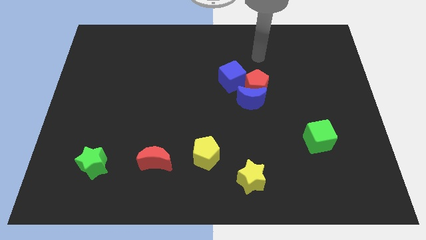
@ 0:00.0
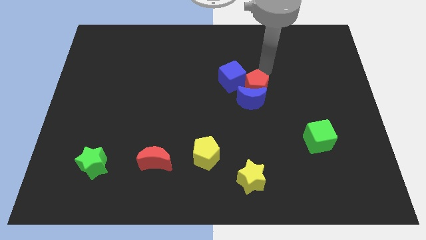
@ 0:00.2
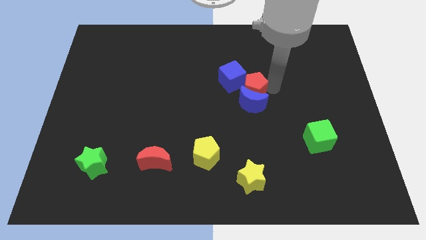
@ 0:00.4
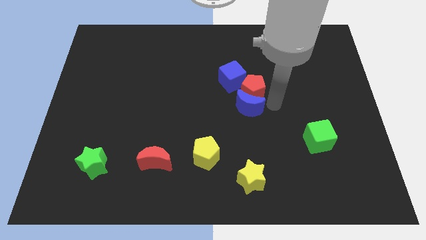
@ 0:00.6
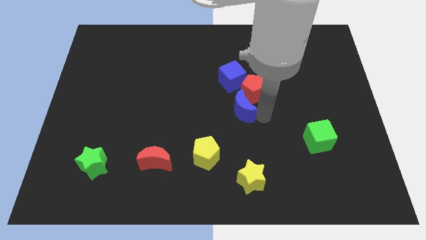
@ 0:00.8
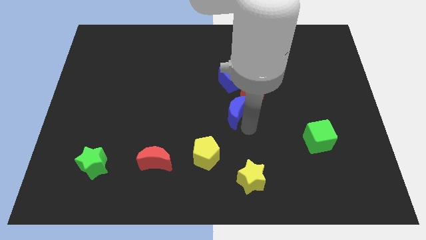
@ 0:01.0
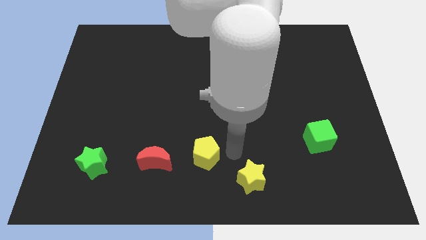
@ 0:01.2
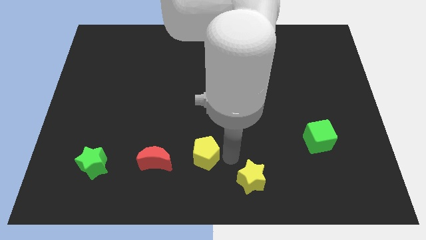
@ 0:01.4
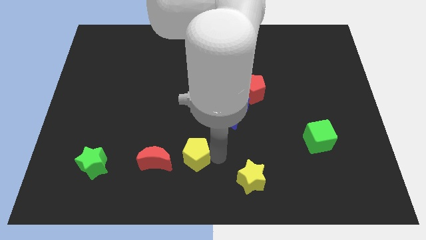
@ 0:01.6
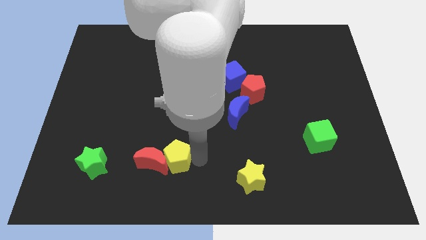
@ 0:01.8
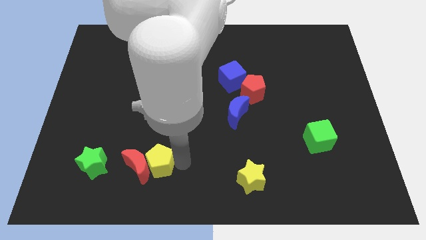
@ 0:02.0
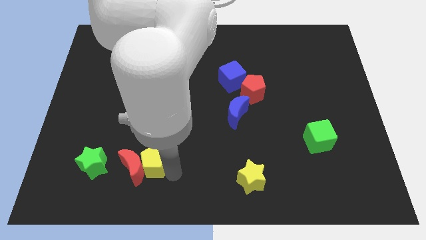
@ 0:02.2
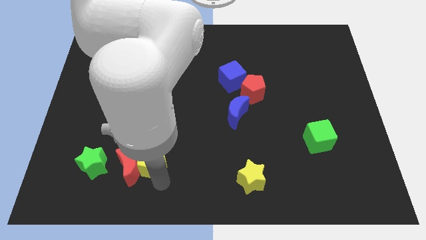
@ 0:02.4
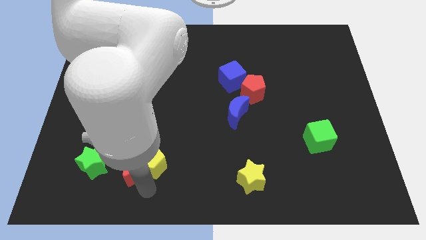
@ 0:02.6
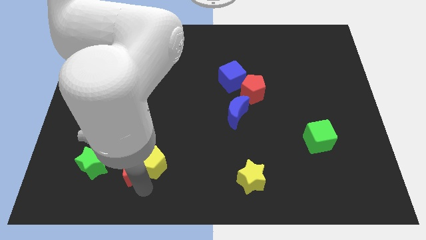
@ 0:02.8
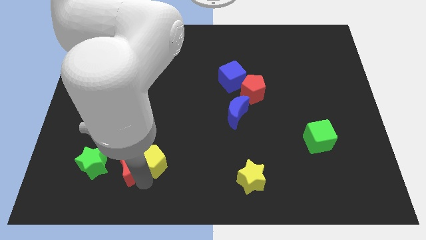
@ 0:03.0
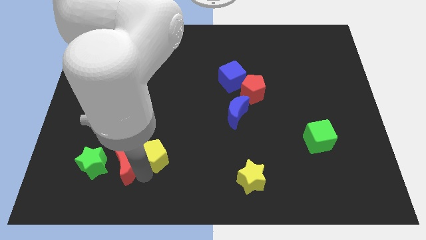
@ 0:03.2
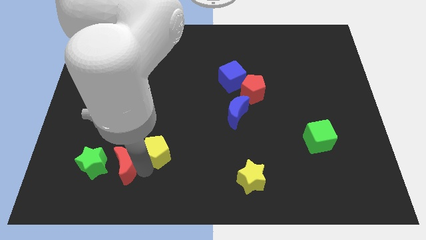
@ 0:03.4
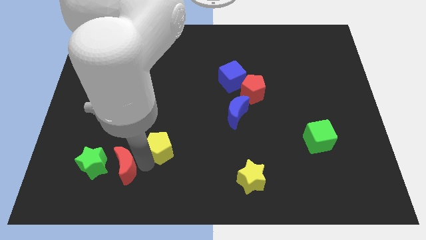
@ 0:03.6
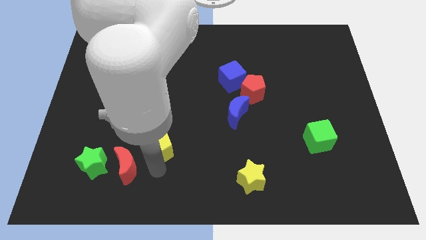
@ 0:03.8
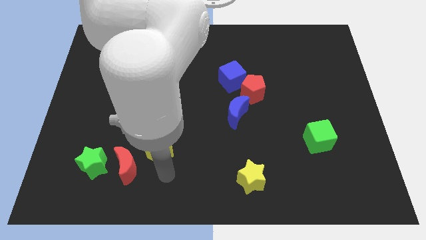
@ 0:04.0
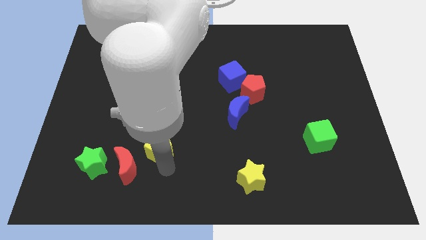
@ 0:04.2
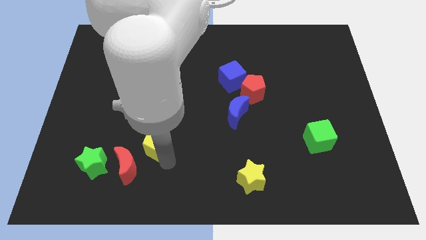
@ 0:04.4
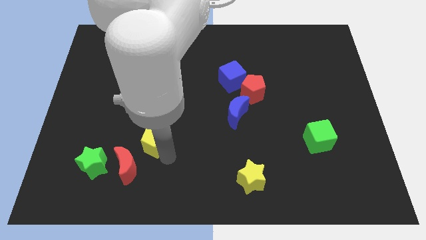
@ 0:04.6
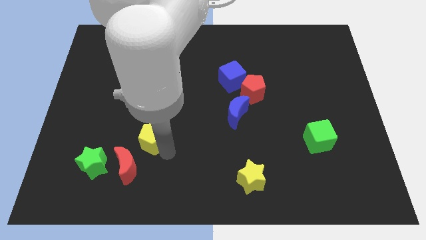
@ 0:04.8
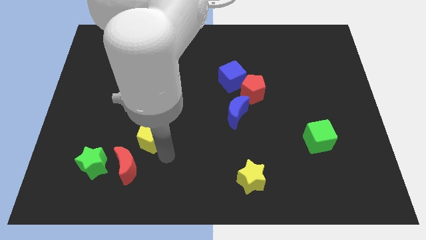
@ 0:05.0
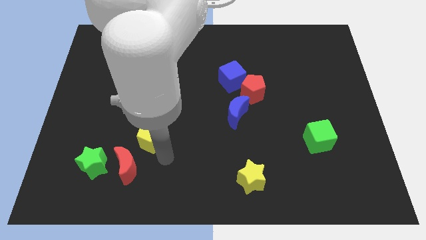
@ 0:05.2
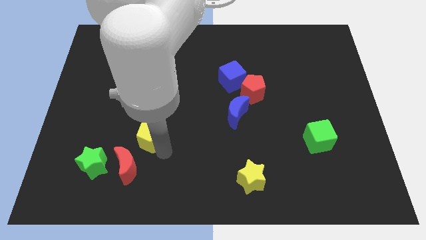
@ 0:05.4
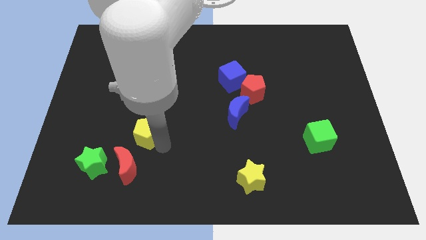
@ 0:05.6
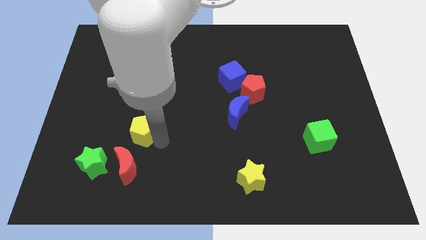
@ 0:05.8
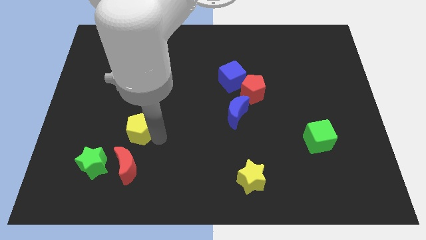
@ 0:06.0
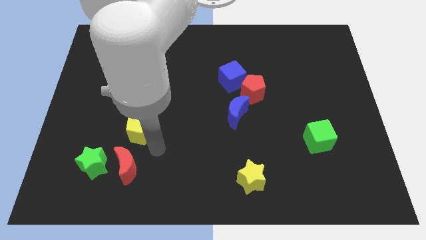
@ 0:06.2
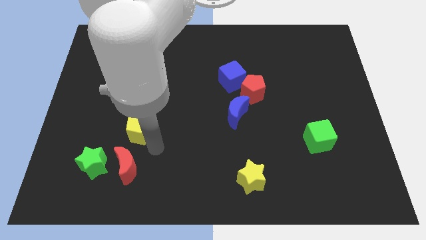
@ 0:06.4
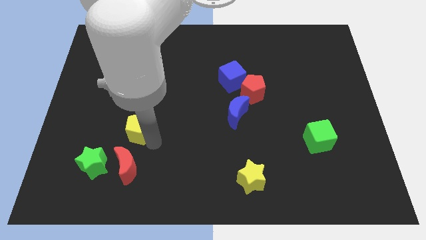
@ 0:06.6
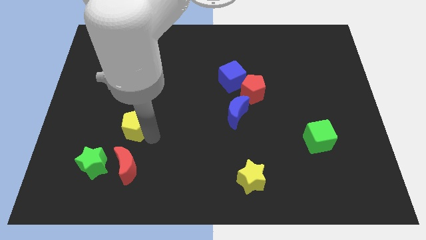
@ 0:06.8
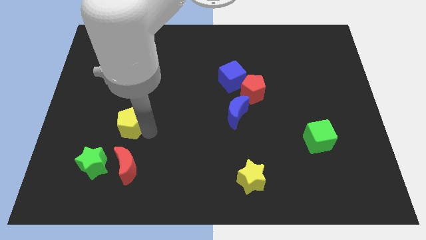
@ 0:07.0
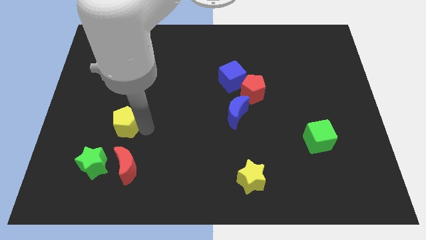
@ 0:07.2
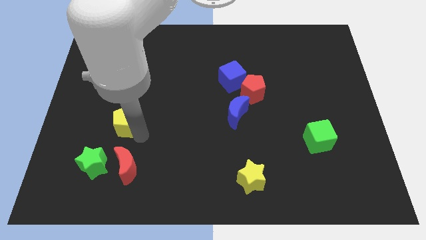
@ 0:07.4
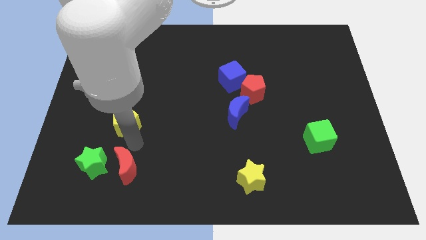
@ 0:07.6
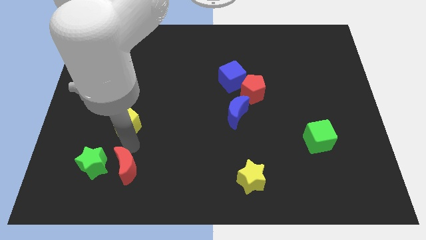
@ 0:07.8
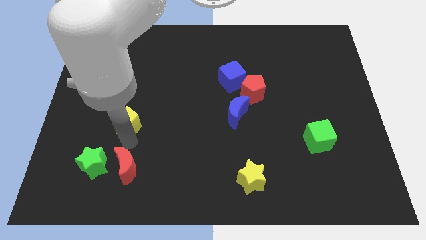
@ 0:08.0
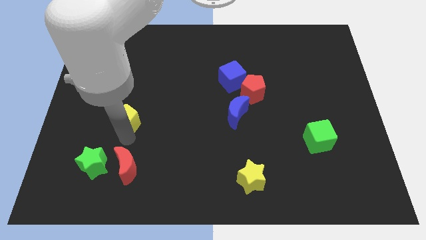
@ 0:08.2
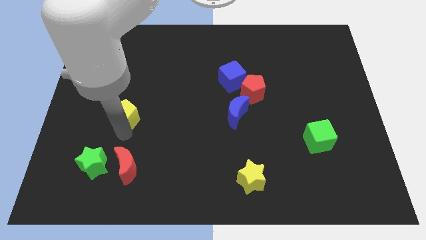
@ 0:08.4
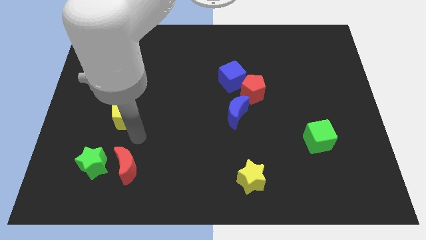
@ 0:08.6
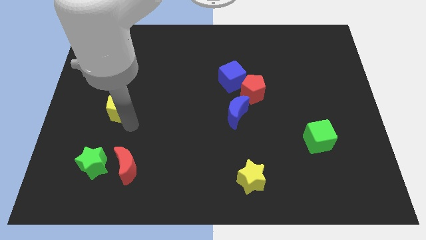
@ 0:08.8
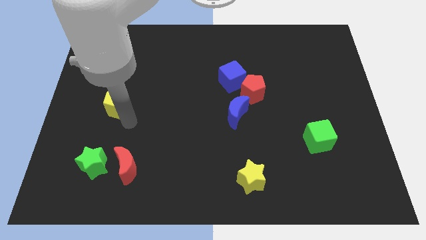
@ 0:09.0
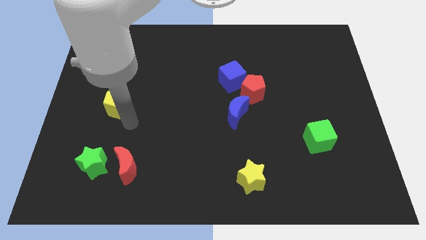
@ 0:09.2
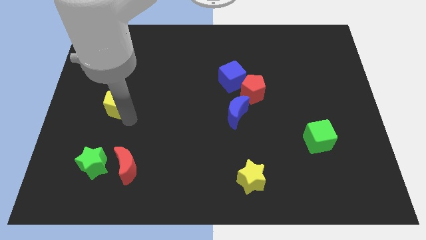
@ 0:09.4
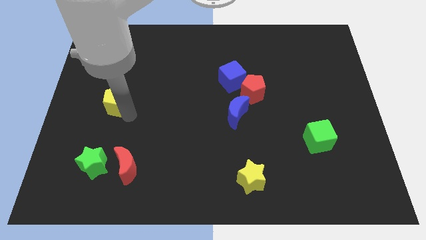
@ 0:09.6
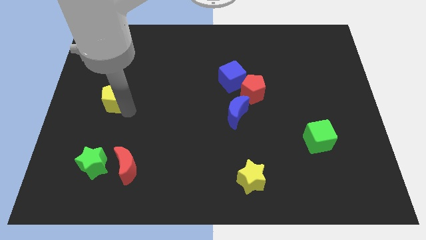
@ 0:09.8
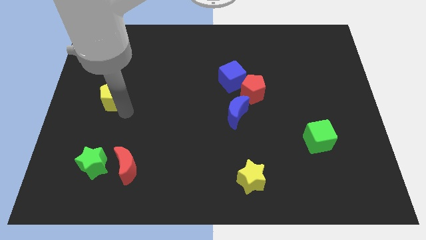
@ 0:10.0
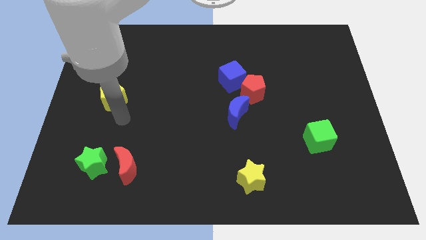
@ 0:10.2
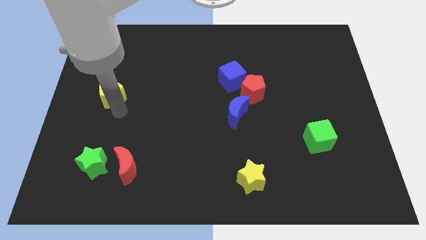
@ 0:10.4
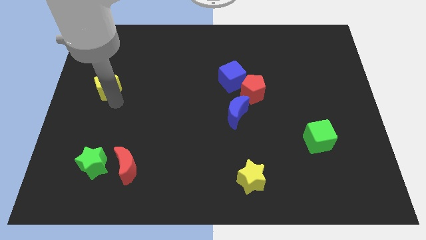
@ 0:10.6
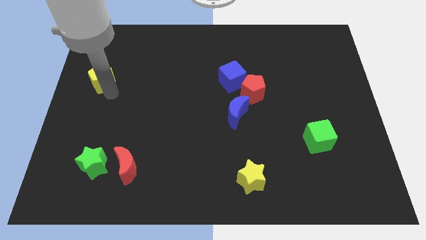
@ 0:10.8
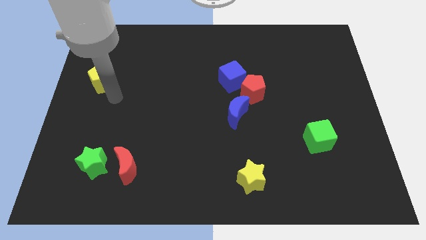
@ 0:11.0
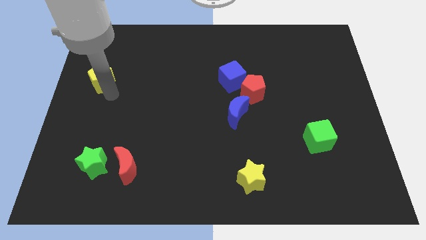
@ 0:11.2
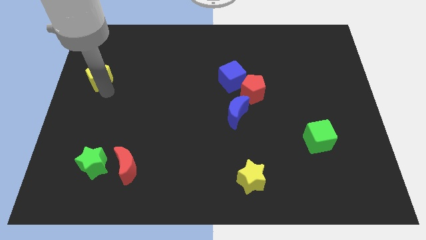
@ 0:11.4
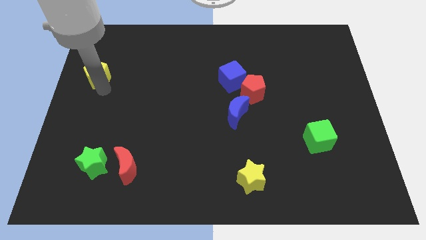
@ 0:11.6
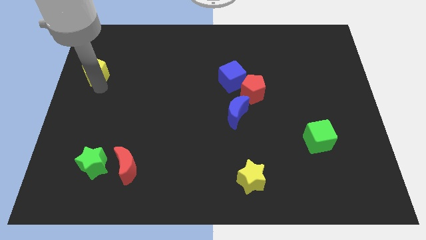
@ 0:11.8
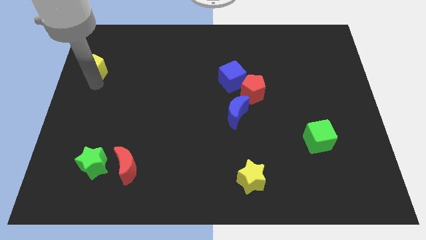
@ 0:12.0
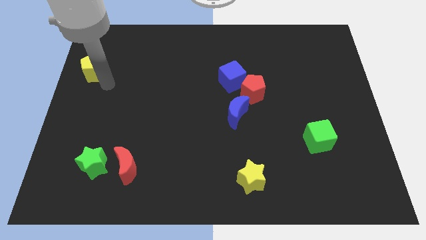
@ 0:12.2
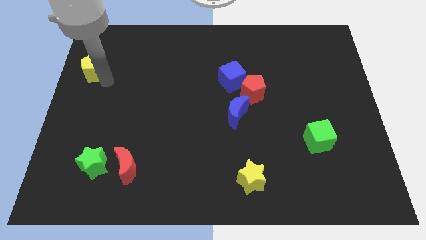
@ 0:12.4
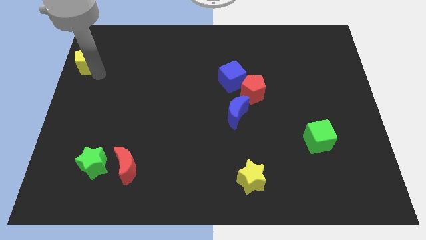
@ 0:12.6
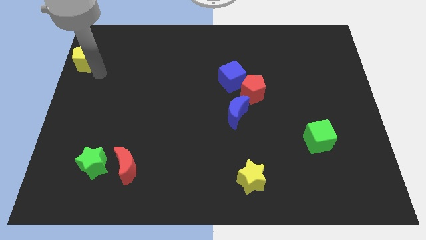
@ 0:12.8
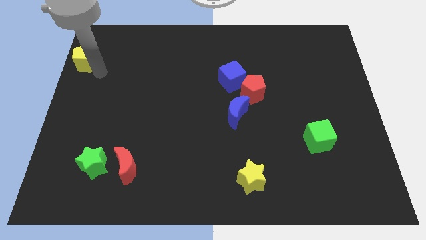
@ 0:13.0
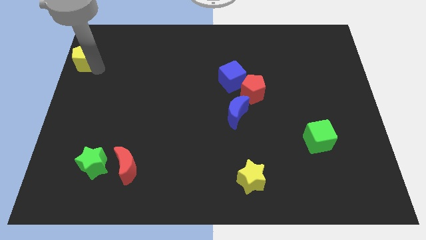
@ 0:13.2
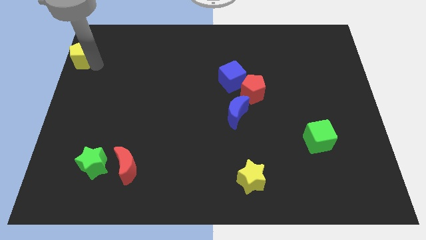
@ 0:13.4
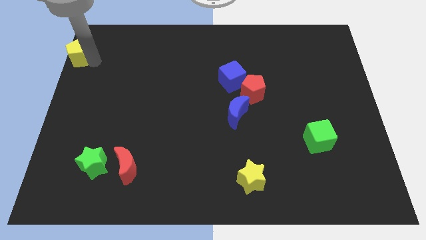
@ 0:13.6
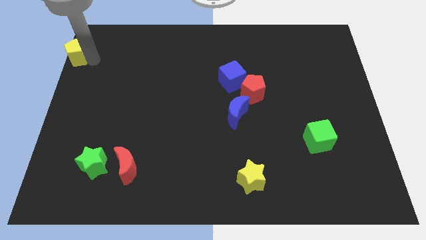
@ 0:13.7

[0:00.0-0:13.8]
slide the yellow pentagon to the top left of the board
